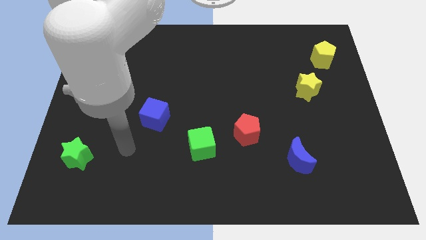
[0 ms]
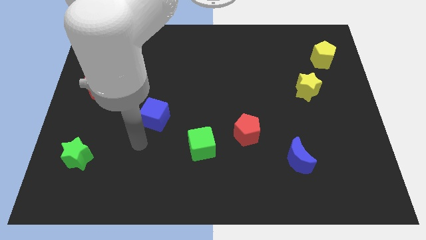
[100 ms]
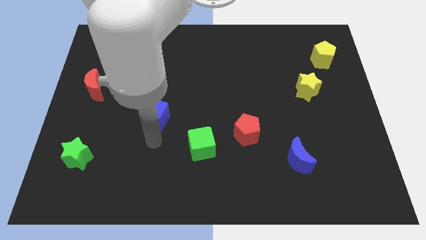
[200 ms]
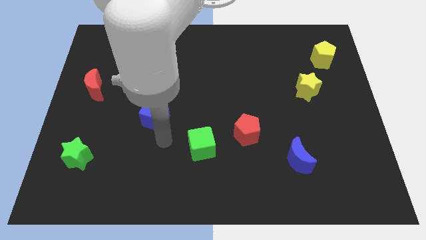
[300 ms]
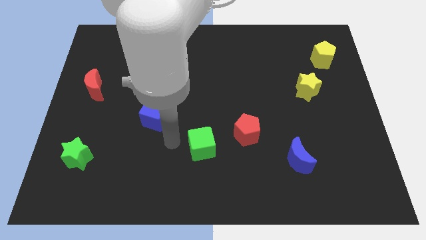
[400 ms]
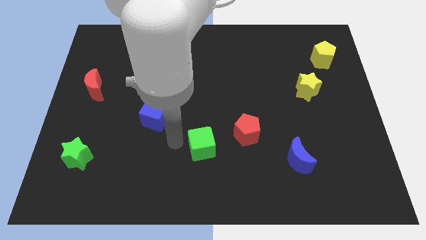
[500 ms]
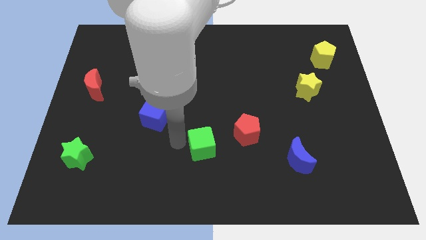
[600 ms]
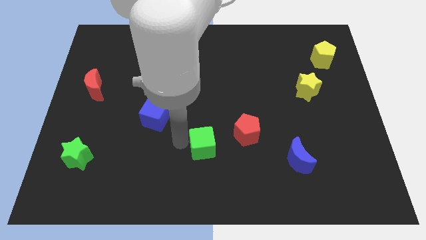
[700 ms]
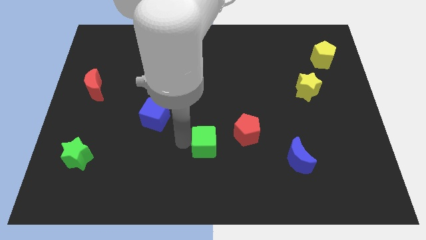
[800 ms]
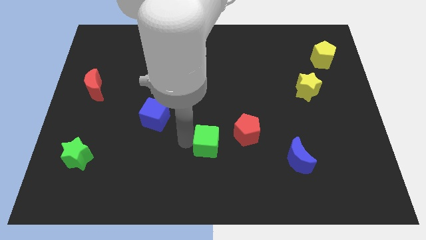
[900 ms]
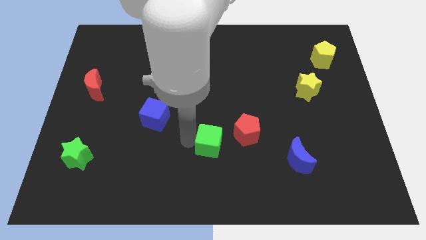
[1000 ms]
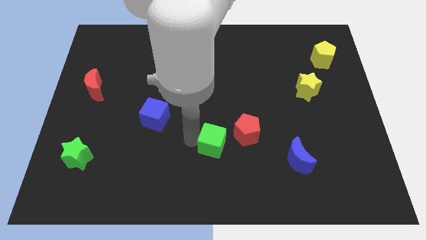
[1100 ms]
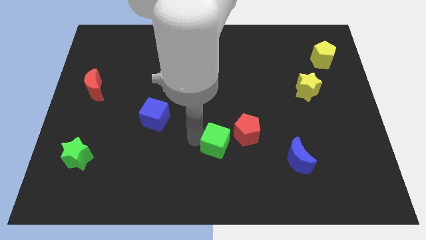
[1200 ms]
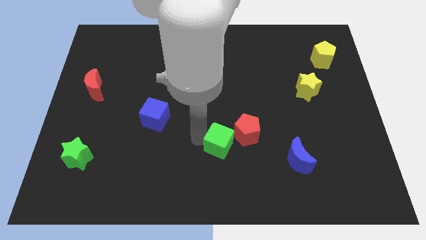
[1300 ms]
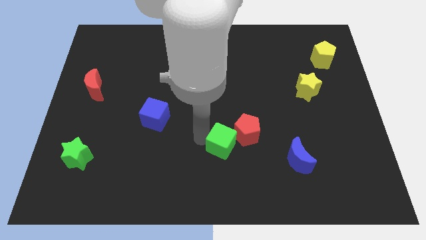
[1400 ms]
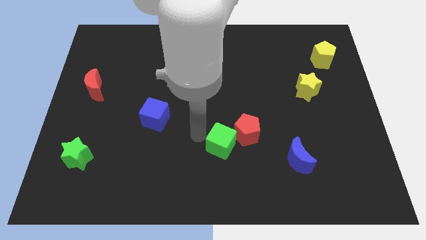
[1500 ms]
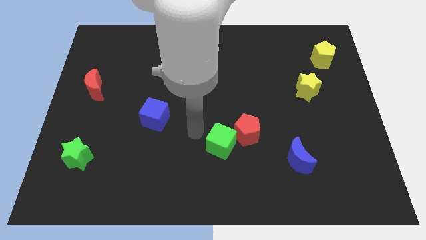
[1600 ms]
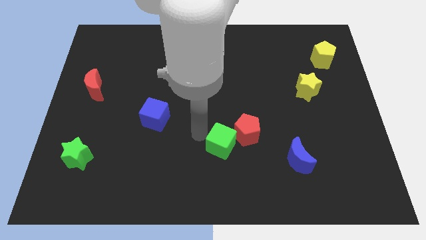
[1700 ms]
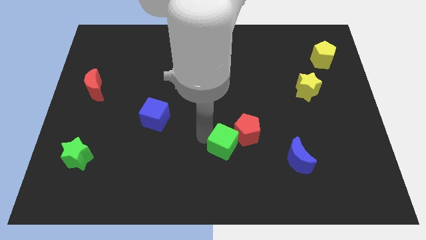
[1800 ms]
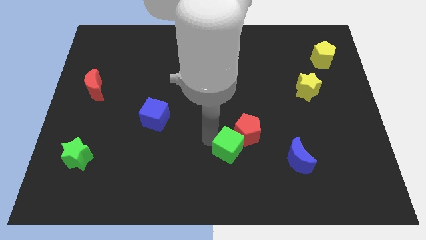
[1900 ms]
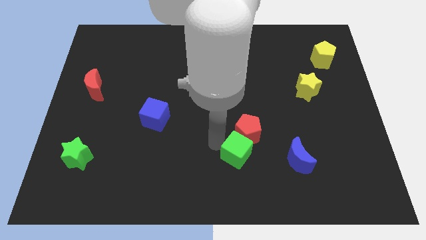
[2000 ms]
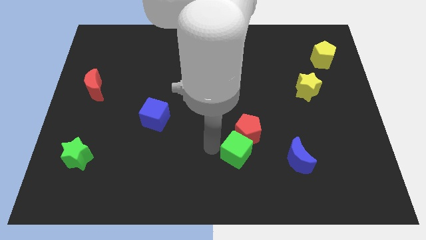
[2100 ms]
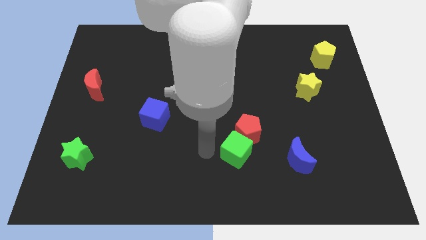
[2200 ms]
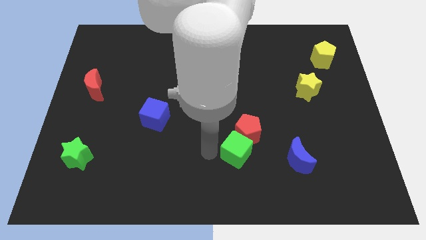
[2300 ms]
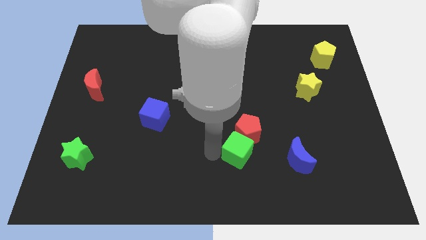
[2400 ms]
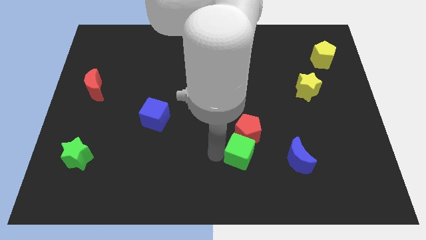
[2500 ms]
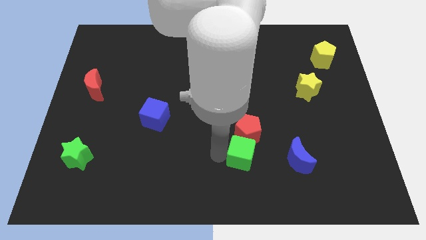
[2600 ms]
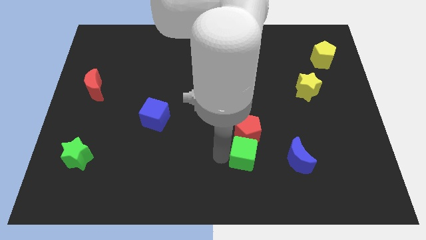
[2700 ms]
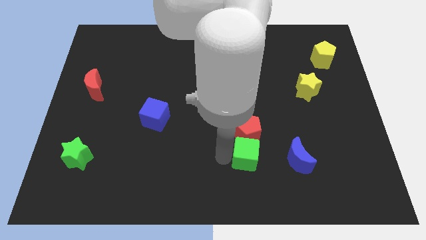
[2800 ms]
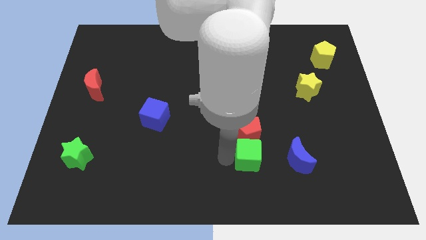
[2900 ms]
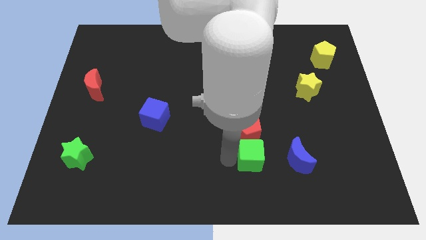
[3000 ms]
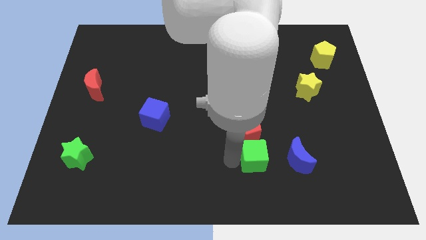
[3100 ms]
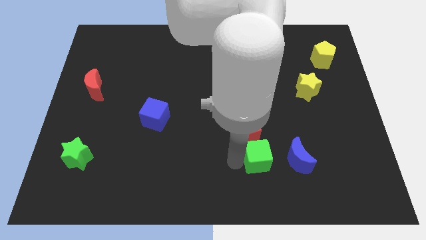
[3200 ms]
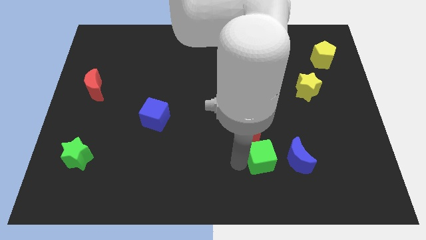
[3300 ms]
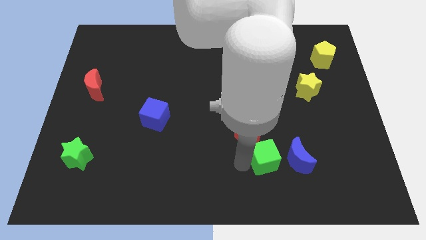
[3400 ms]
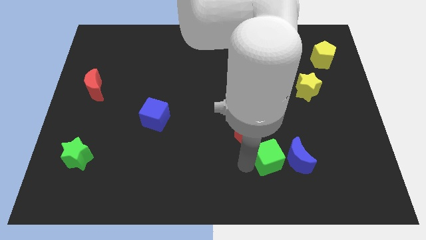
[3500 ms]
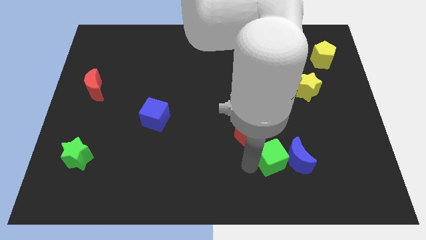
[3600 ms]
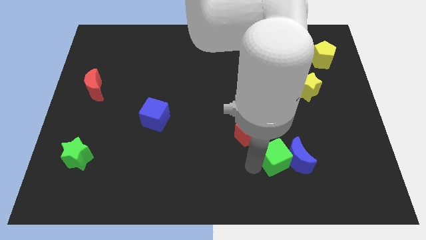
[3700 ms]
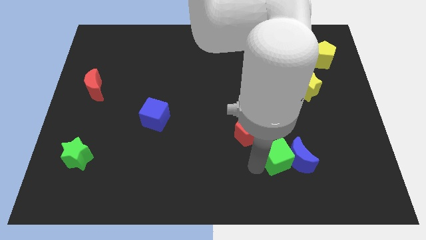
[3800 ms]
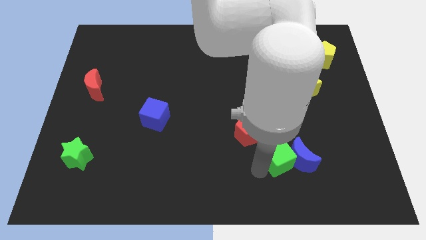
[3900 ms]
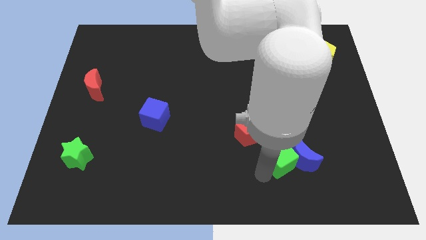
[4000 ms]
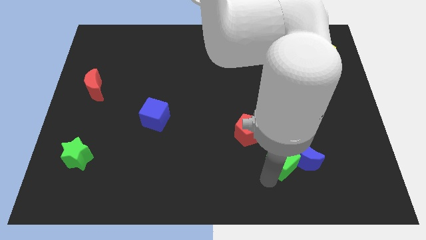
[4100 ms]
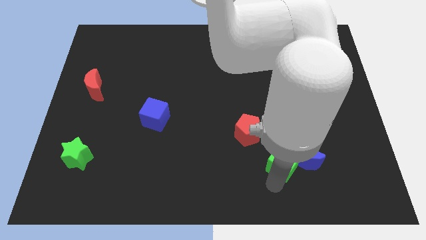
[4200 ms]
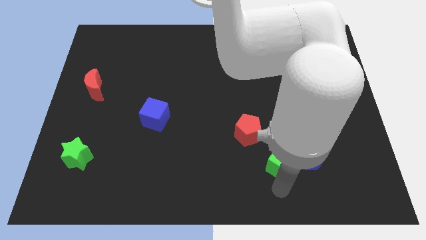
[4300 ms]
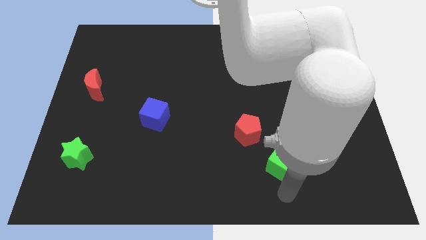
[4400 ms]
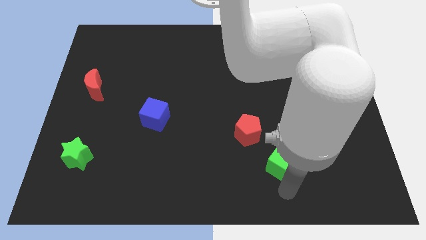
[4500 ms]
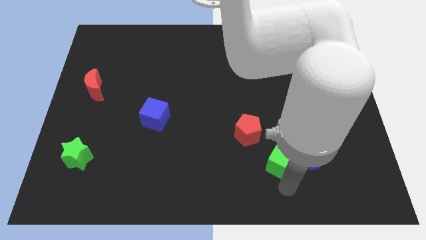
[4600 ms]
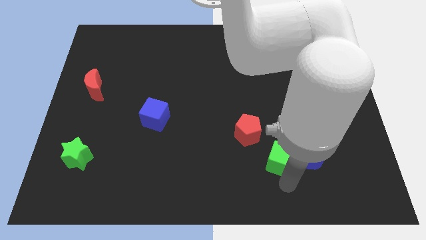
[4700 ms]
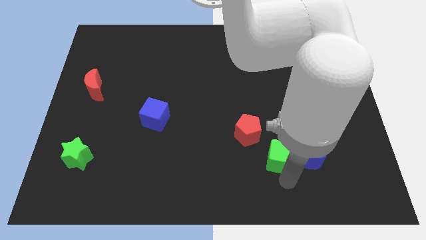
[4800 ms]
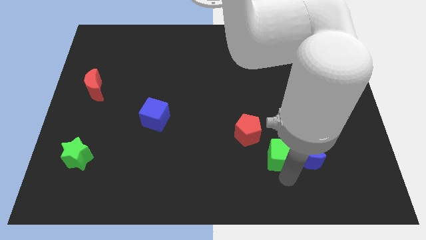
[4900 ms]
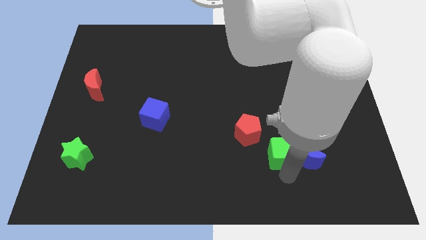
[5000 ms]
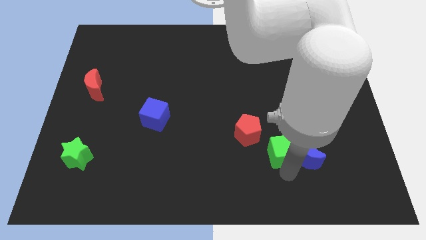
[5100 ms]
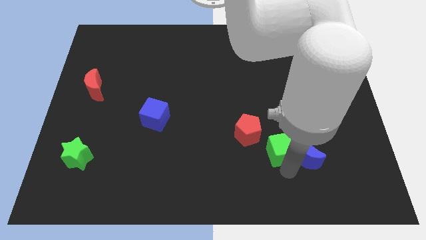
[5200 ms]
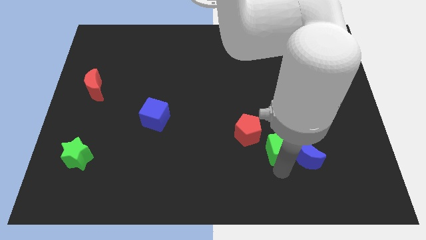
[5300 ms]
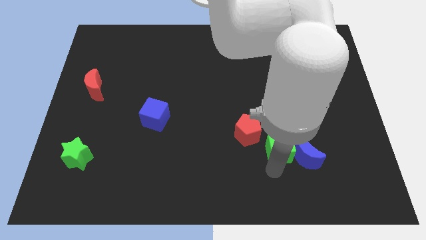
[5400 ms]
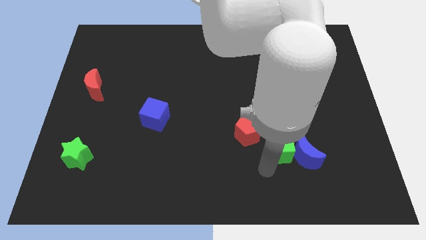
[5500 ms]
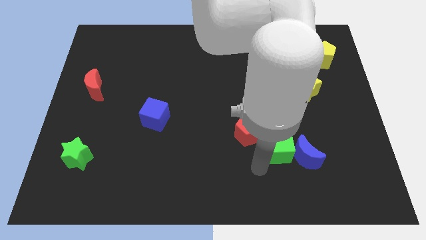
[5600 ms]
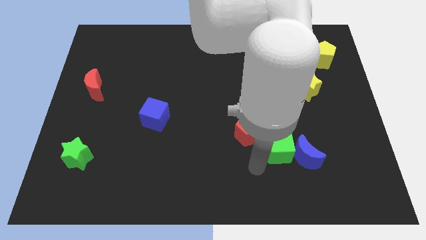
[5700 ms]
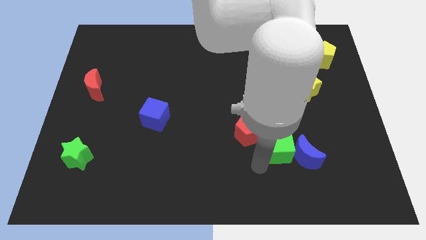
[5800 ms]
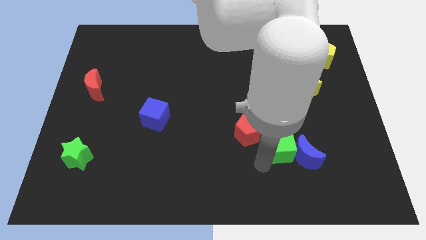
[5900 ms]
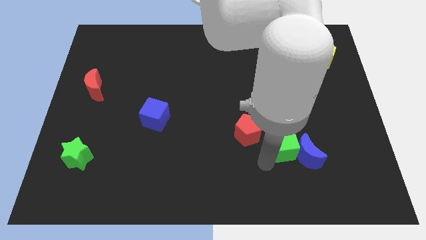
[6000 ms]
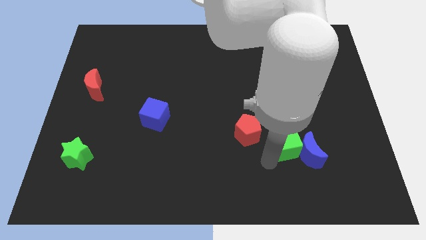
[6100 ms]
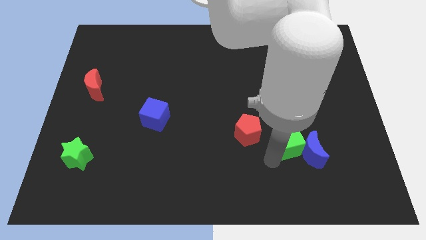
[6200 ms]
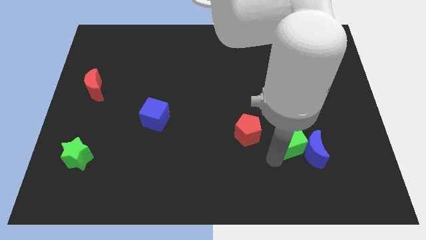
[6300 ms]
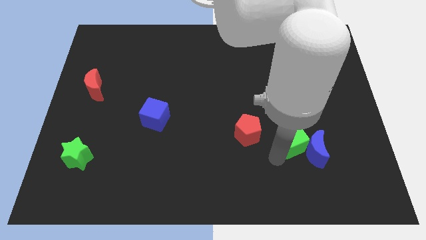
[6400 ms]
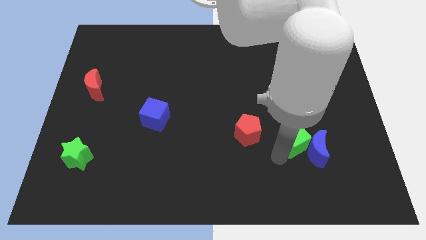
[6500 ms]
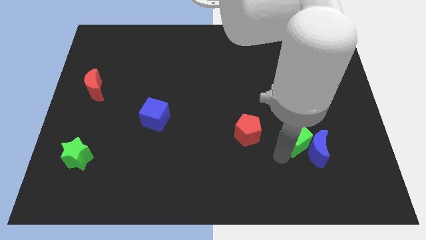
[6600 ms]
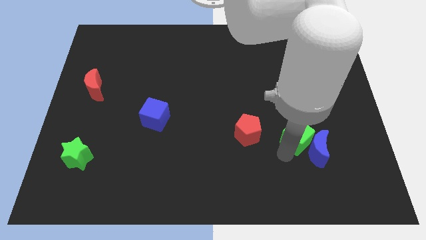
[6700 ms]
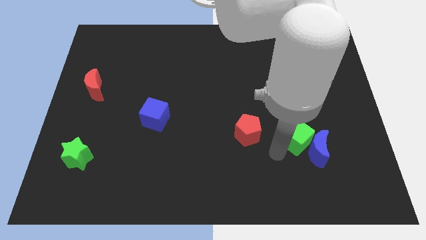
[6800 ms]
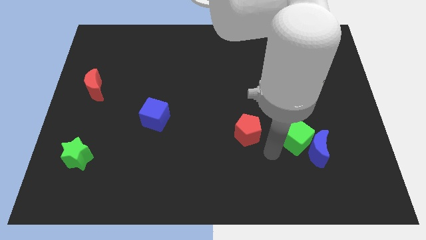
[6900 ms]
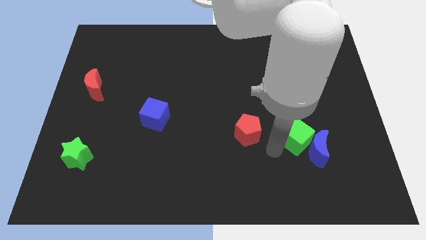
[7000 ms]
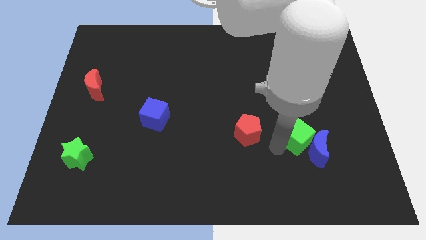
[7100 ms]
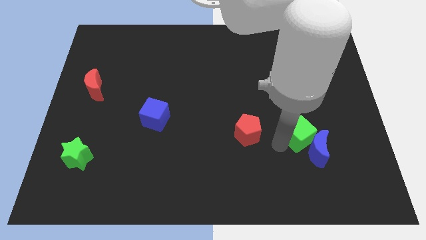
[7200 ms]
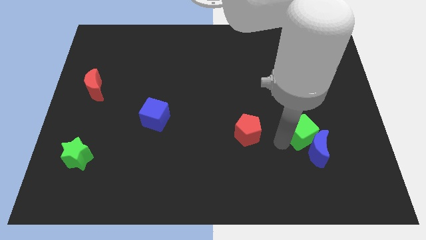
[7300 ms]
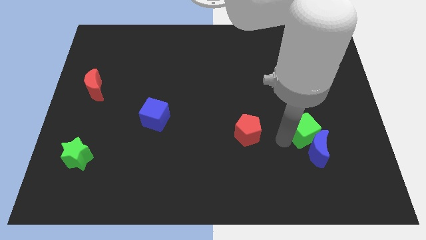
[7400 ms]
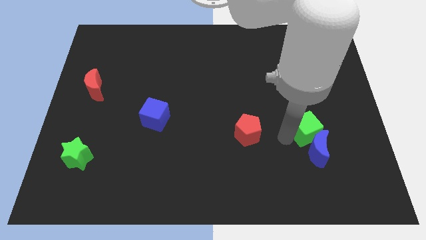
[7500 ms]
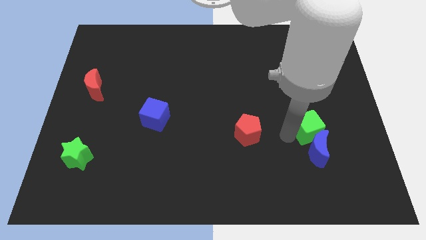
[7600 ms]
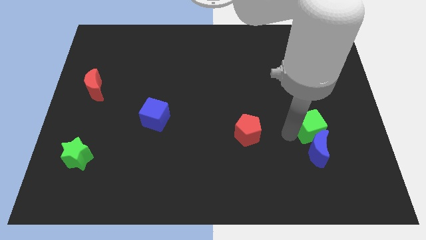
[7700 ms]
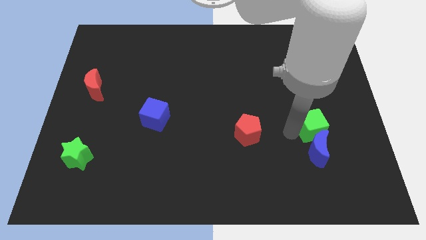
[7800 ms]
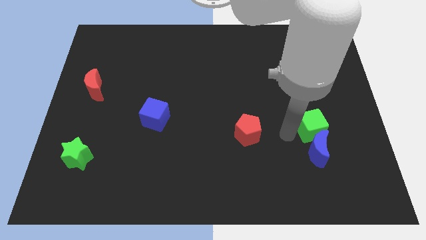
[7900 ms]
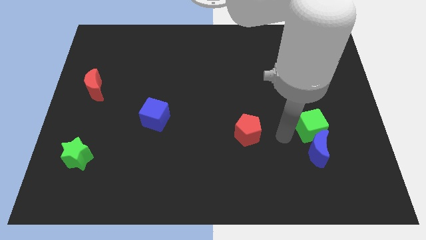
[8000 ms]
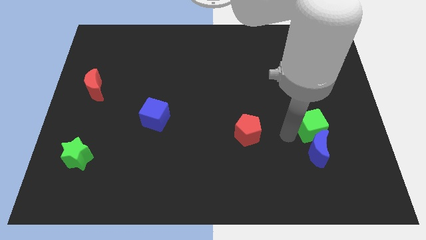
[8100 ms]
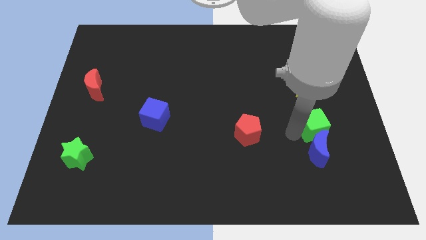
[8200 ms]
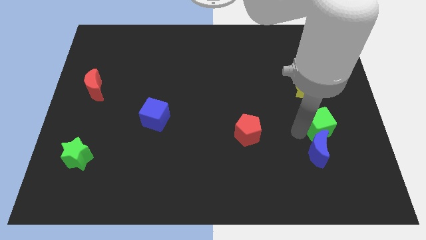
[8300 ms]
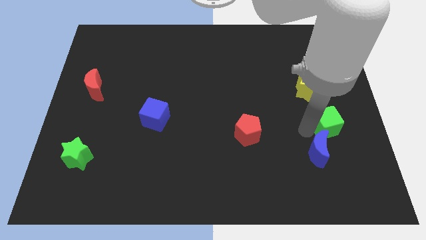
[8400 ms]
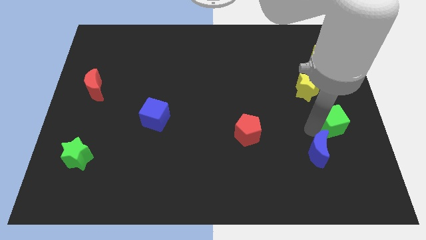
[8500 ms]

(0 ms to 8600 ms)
move the green cube to the right side of the board
